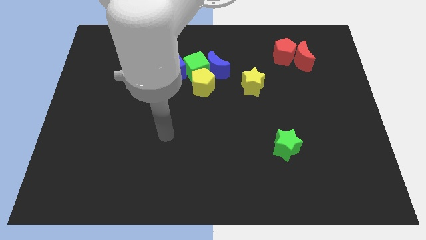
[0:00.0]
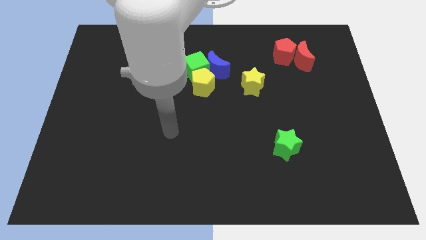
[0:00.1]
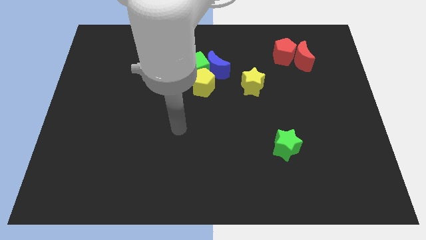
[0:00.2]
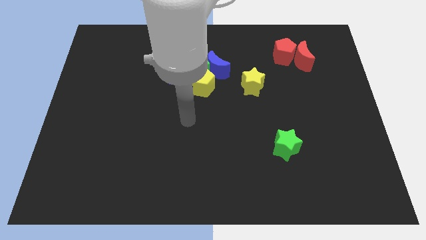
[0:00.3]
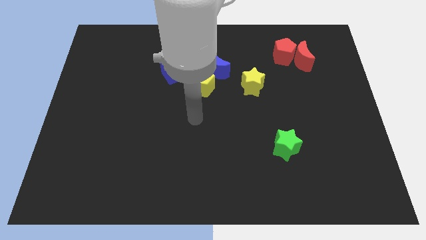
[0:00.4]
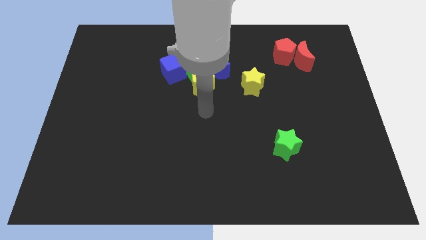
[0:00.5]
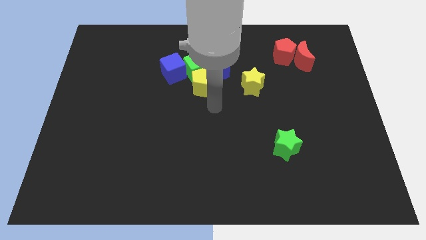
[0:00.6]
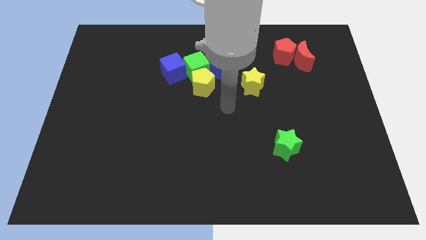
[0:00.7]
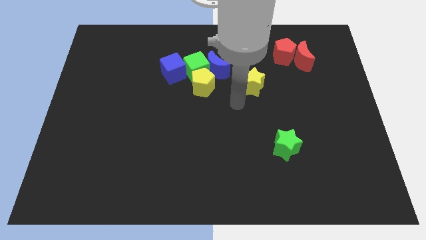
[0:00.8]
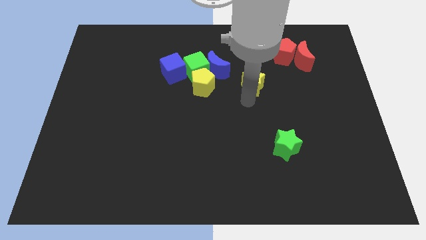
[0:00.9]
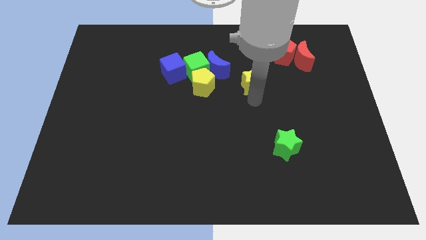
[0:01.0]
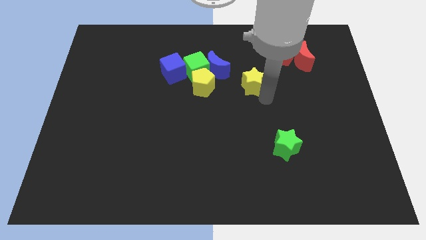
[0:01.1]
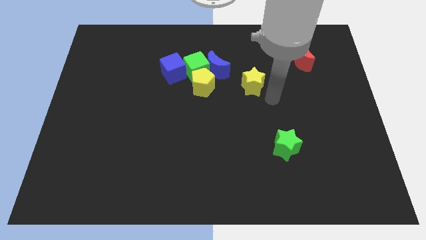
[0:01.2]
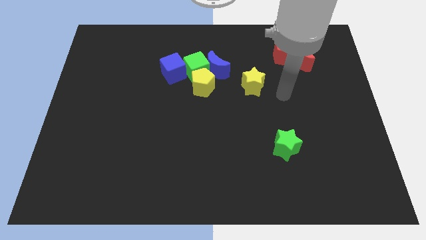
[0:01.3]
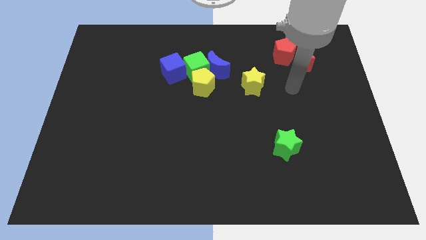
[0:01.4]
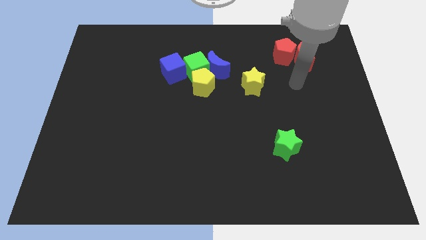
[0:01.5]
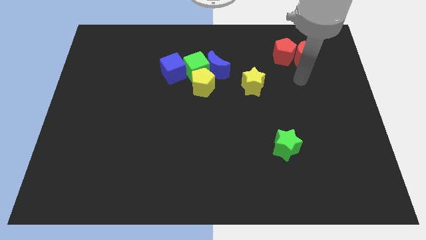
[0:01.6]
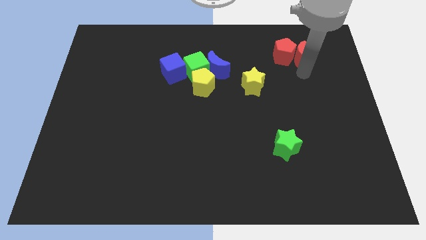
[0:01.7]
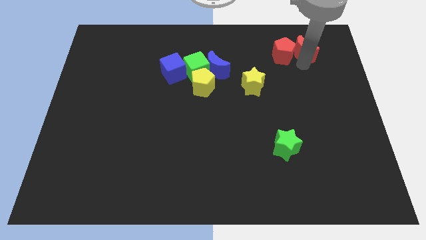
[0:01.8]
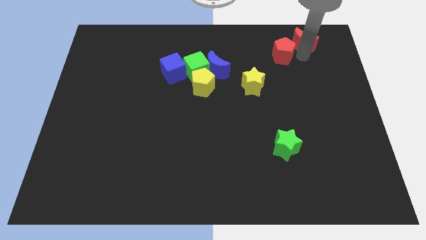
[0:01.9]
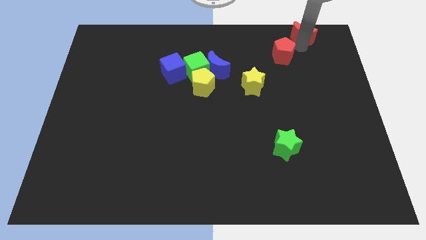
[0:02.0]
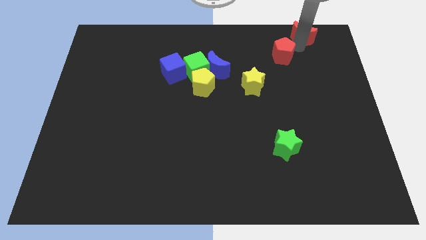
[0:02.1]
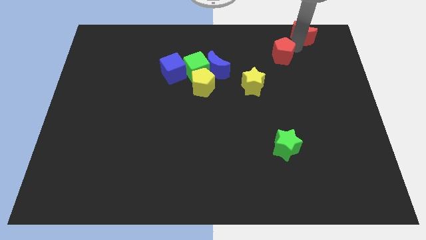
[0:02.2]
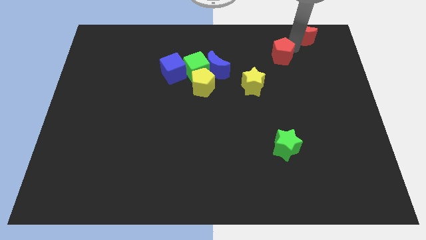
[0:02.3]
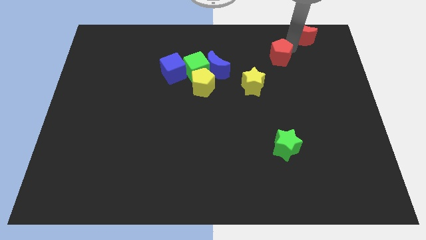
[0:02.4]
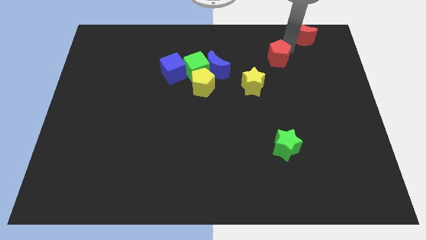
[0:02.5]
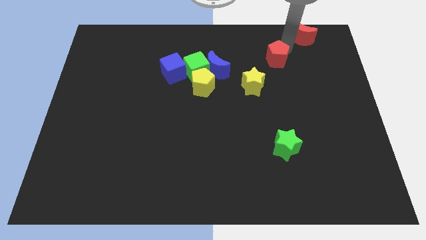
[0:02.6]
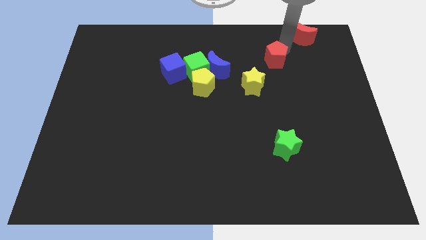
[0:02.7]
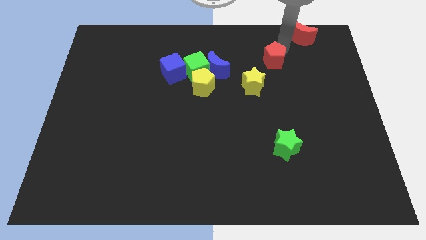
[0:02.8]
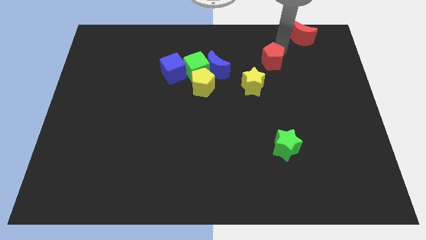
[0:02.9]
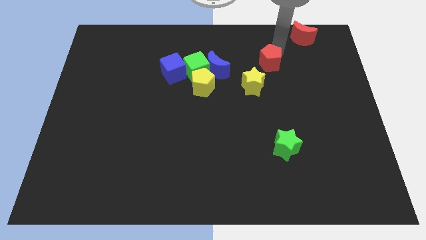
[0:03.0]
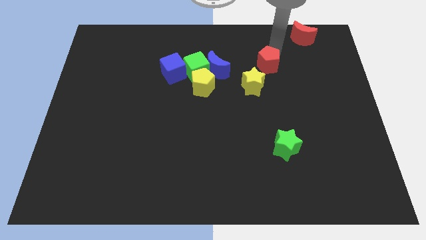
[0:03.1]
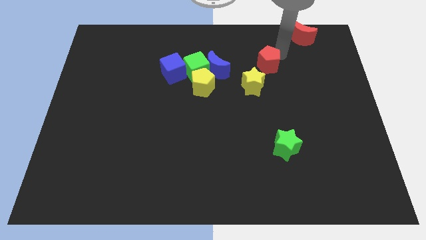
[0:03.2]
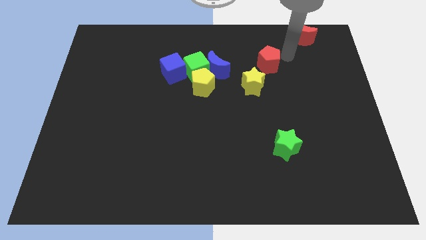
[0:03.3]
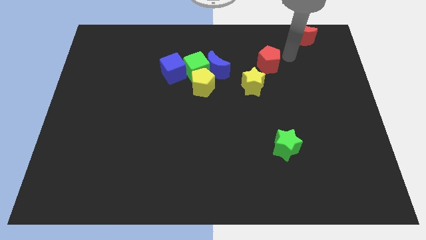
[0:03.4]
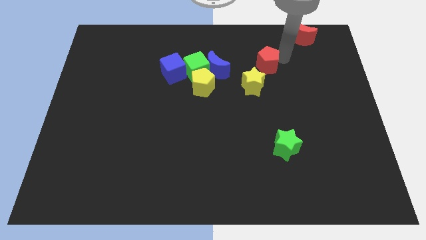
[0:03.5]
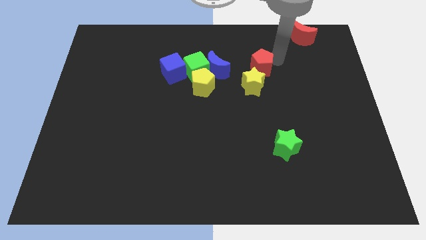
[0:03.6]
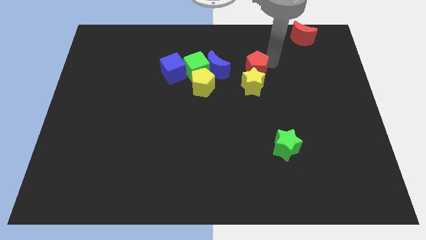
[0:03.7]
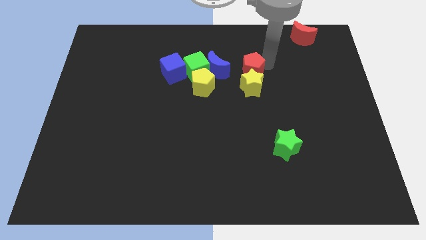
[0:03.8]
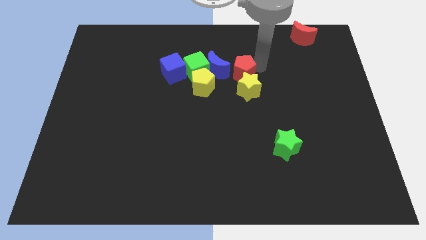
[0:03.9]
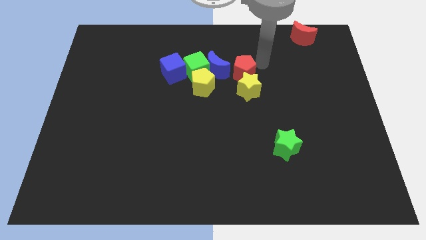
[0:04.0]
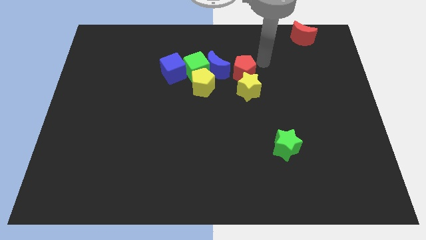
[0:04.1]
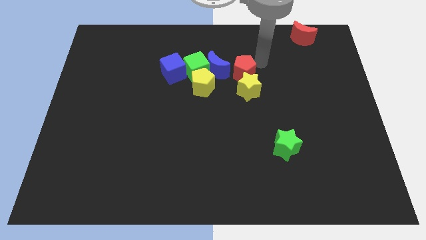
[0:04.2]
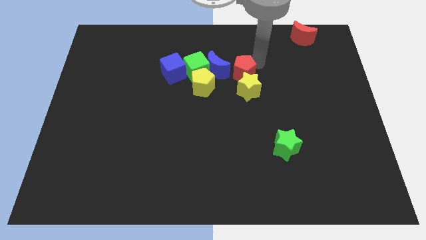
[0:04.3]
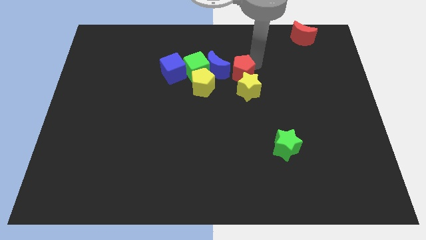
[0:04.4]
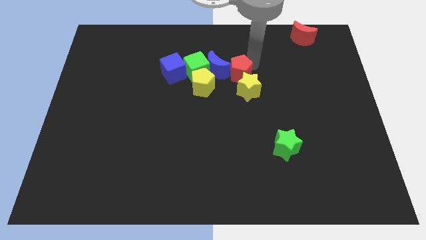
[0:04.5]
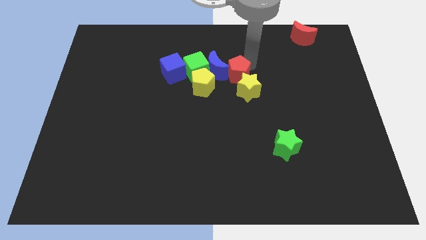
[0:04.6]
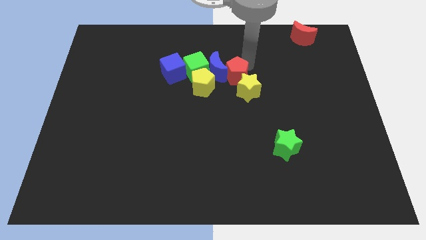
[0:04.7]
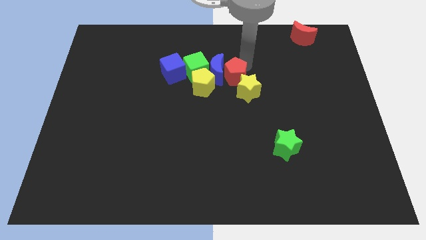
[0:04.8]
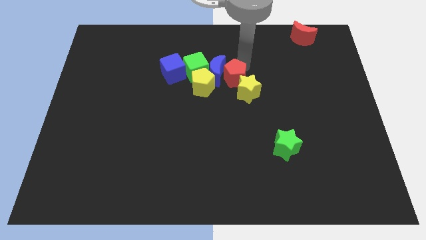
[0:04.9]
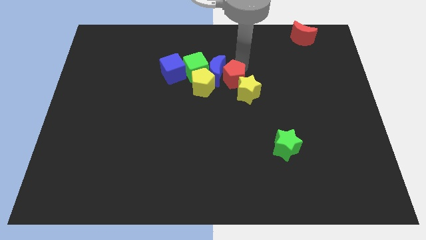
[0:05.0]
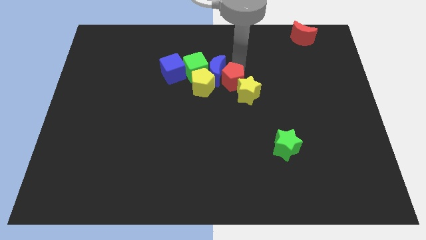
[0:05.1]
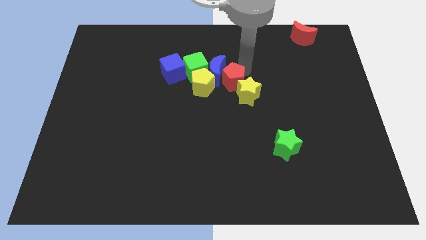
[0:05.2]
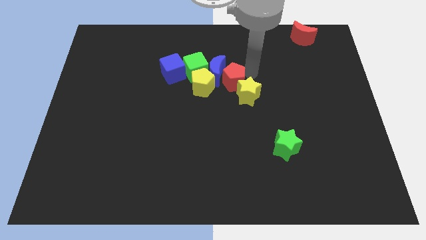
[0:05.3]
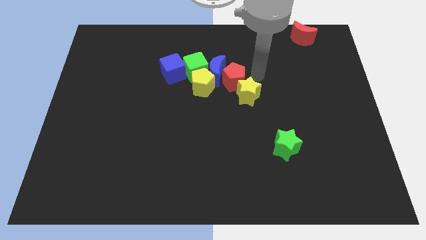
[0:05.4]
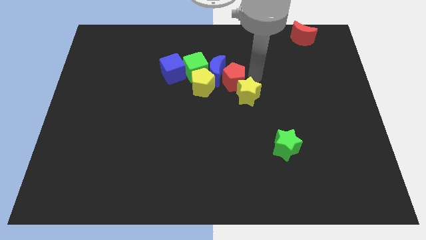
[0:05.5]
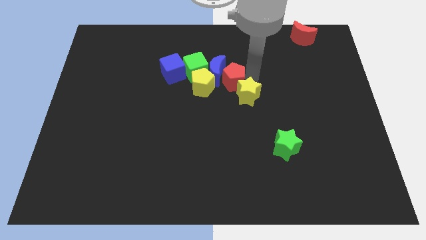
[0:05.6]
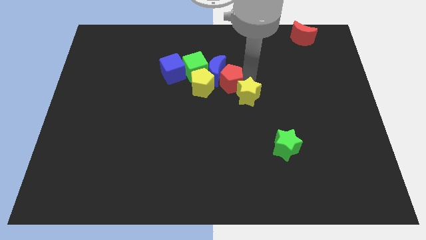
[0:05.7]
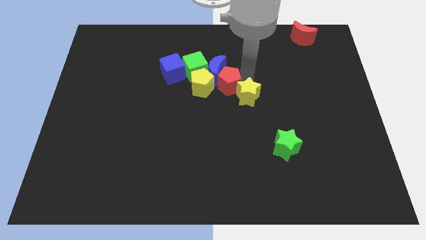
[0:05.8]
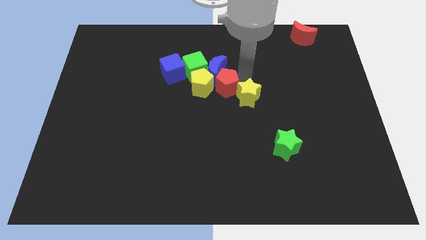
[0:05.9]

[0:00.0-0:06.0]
slide the red pentagon towards the yellow pentagon
